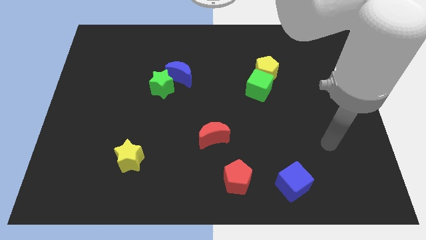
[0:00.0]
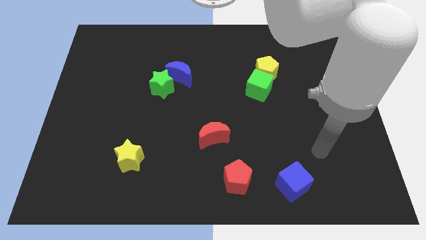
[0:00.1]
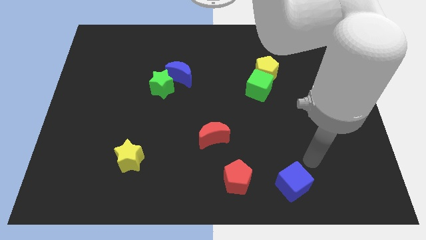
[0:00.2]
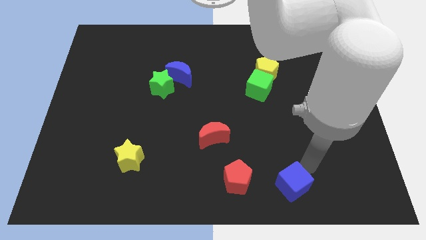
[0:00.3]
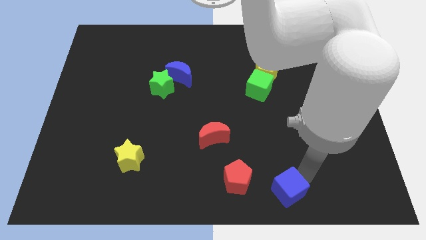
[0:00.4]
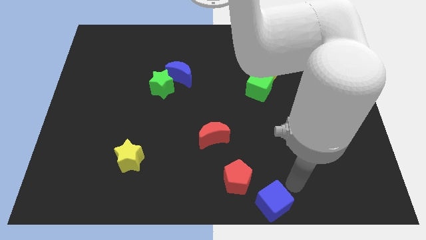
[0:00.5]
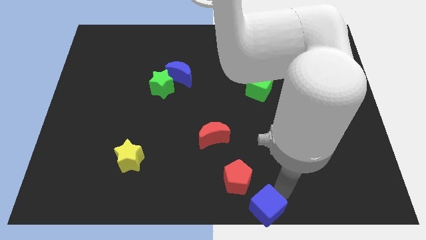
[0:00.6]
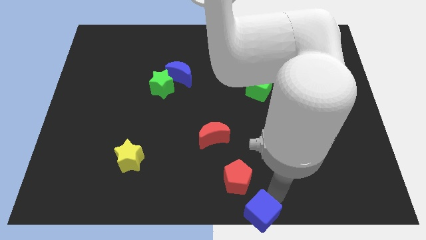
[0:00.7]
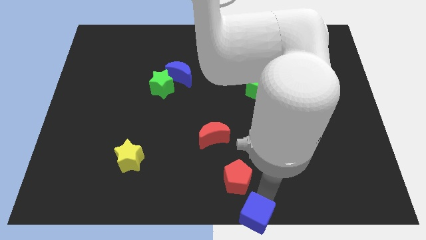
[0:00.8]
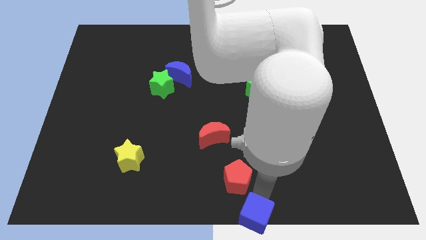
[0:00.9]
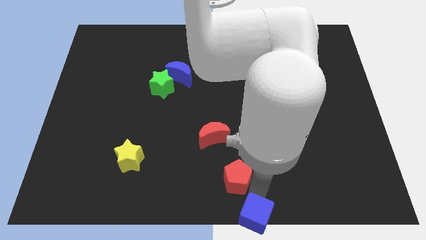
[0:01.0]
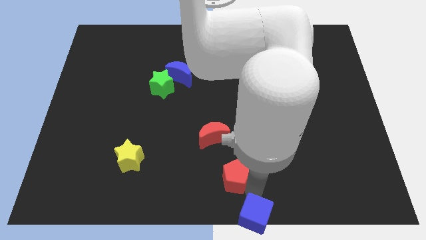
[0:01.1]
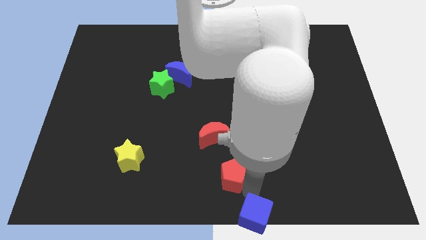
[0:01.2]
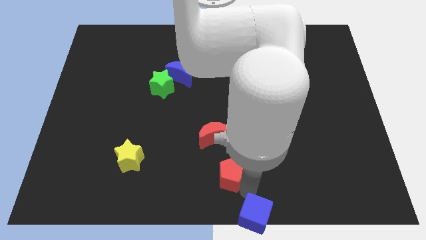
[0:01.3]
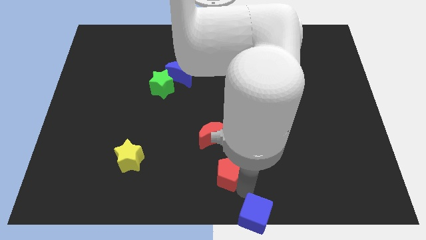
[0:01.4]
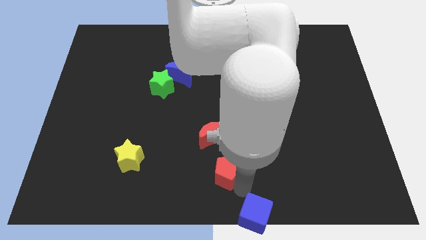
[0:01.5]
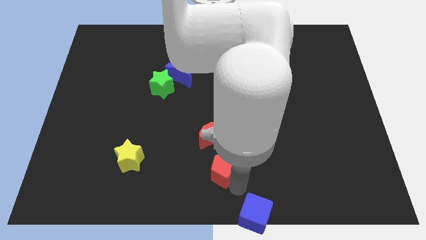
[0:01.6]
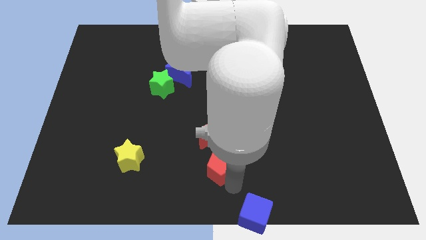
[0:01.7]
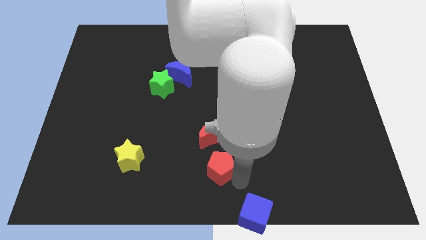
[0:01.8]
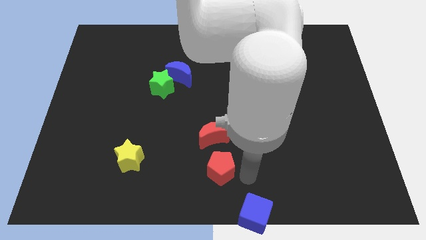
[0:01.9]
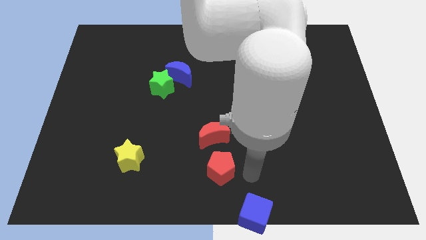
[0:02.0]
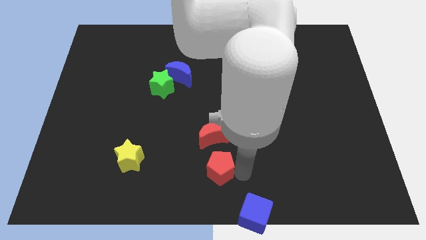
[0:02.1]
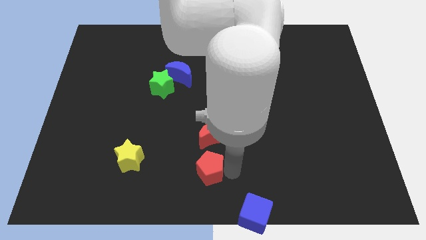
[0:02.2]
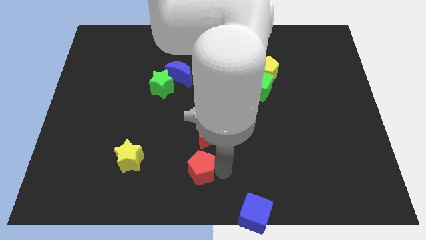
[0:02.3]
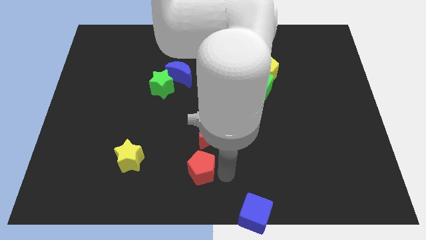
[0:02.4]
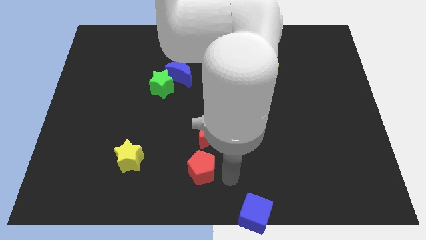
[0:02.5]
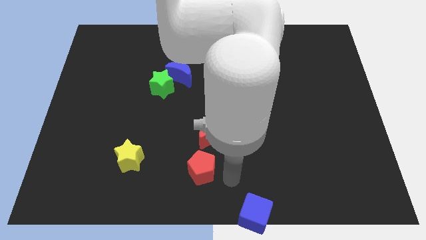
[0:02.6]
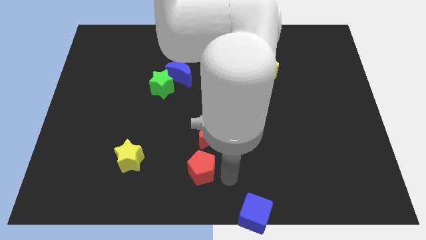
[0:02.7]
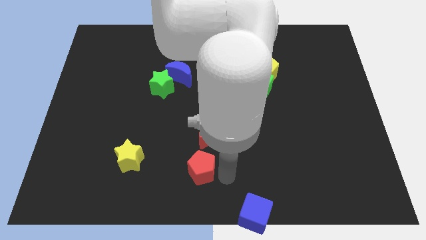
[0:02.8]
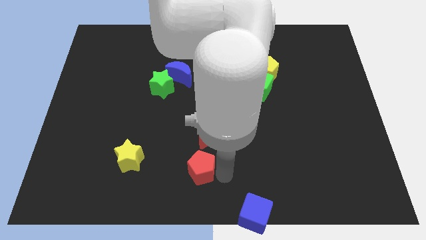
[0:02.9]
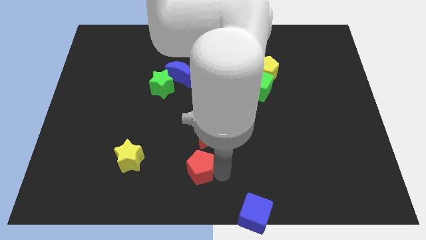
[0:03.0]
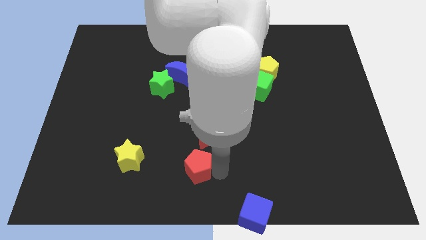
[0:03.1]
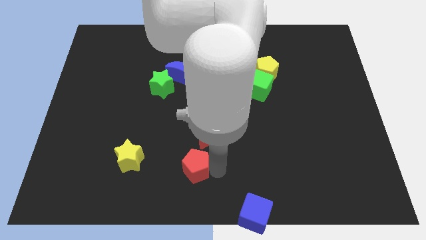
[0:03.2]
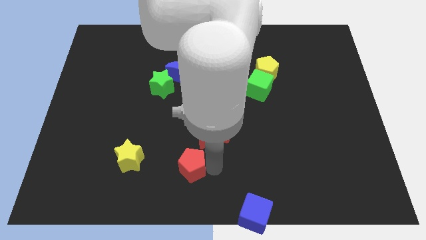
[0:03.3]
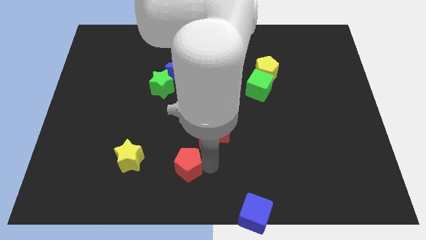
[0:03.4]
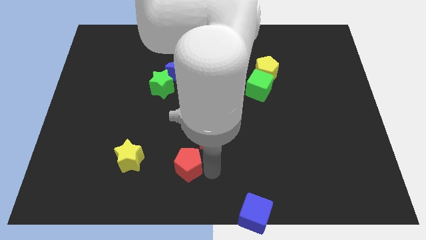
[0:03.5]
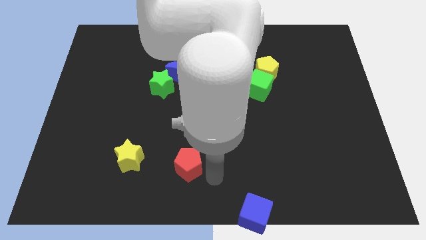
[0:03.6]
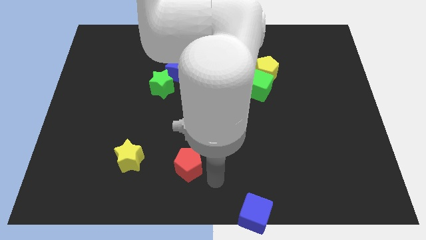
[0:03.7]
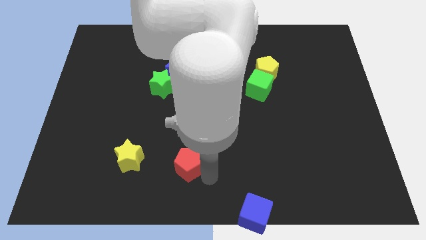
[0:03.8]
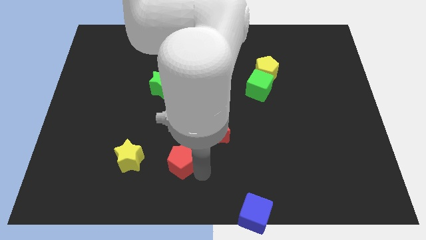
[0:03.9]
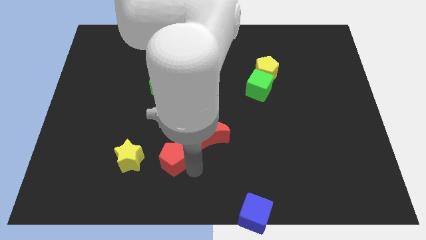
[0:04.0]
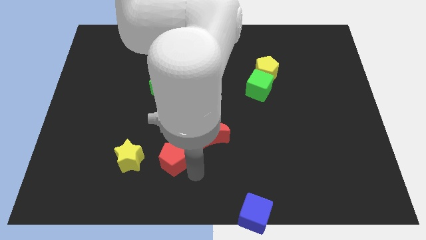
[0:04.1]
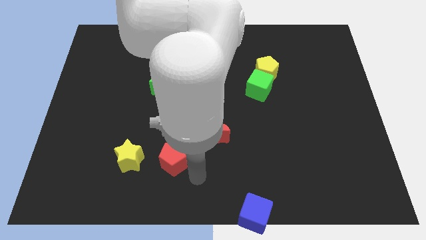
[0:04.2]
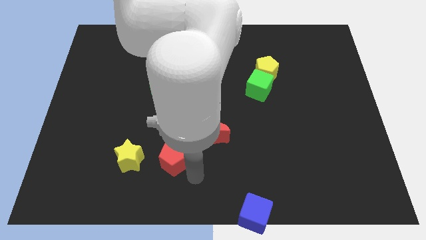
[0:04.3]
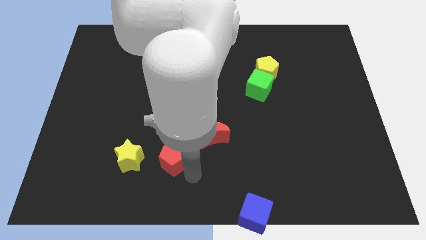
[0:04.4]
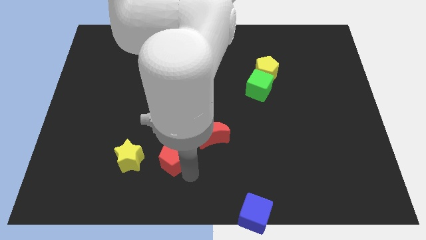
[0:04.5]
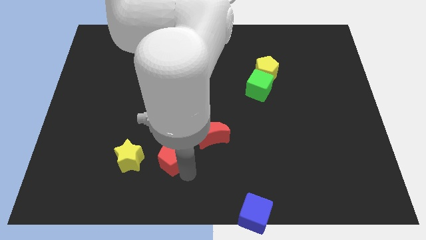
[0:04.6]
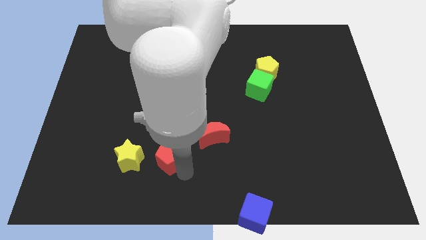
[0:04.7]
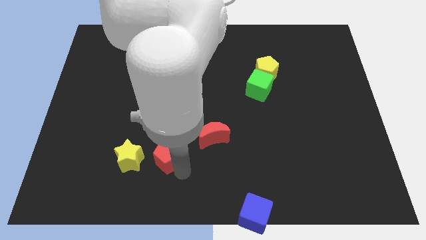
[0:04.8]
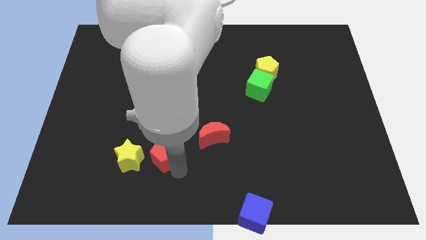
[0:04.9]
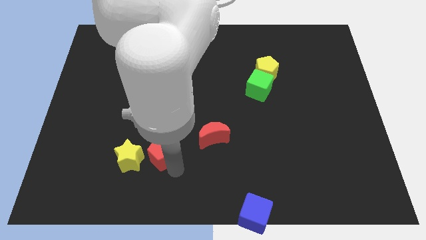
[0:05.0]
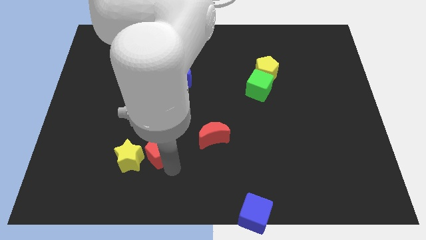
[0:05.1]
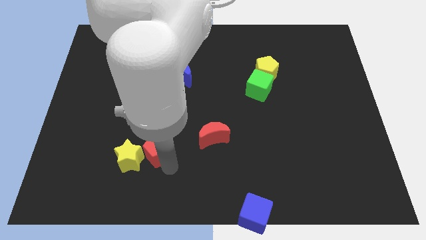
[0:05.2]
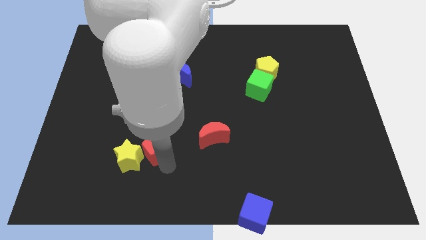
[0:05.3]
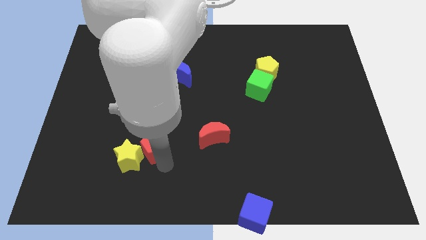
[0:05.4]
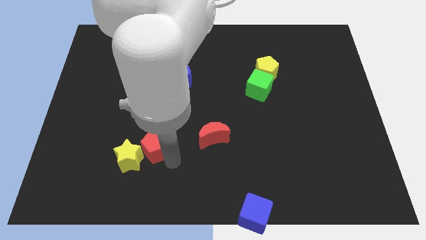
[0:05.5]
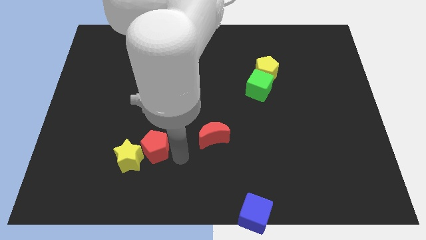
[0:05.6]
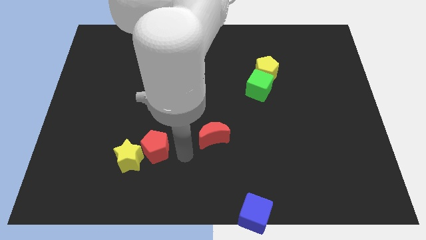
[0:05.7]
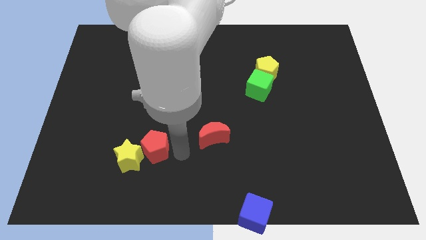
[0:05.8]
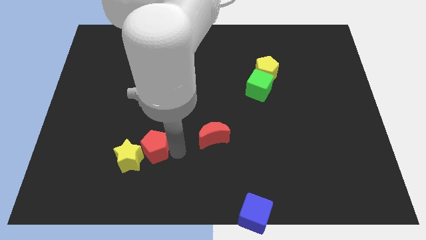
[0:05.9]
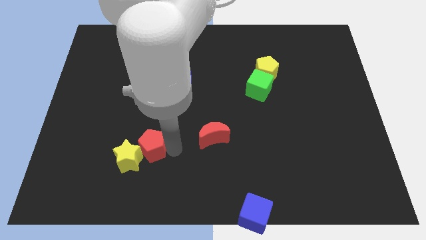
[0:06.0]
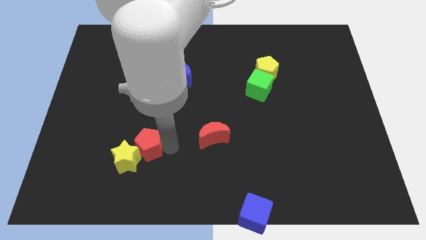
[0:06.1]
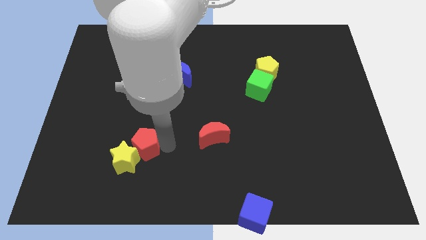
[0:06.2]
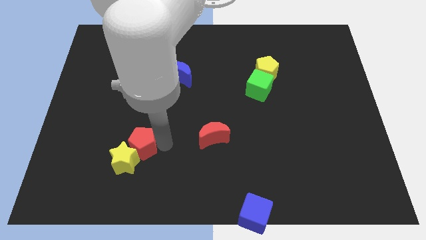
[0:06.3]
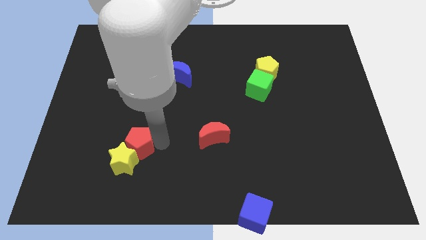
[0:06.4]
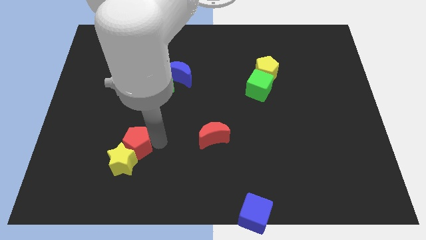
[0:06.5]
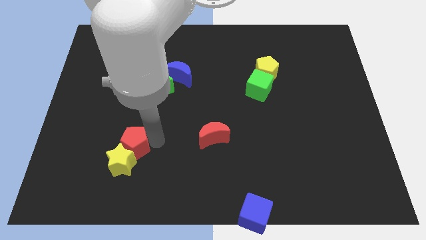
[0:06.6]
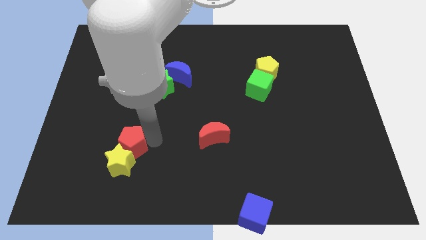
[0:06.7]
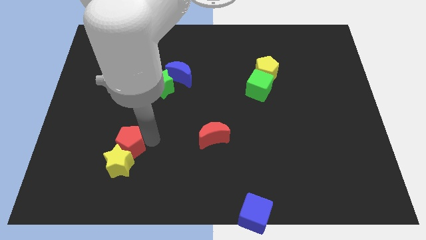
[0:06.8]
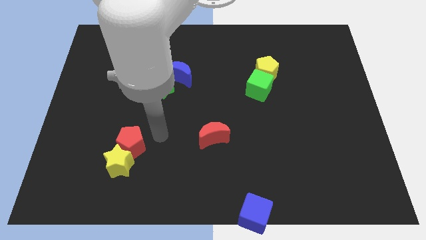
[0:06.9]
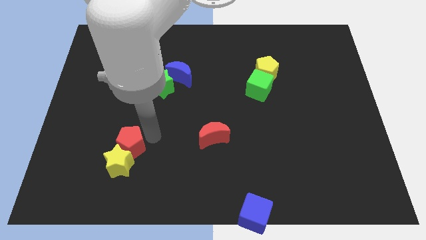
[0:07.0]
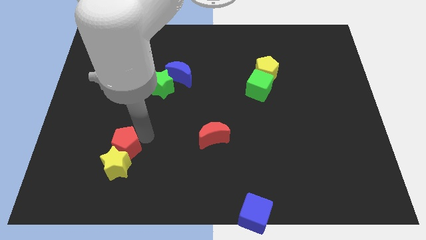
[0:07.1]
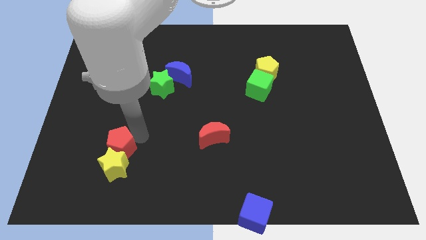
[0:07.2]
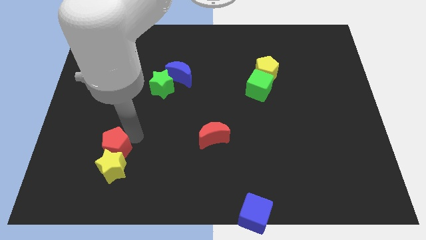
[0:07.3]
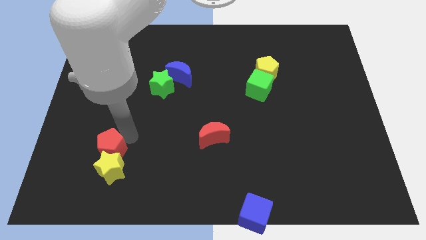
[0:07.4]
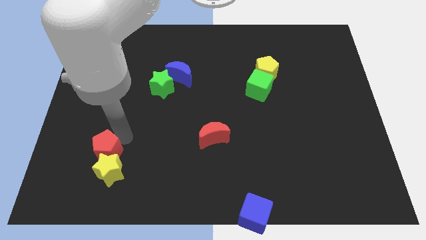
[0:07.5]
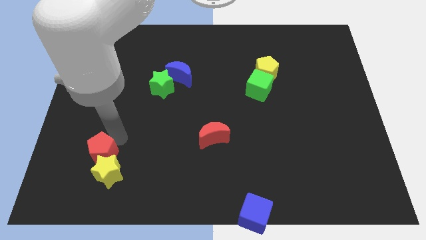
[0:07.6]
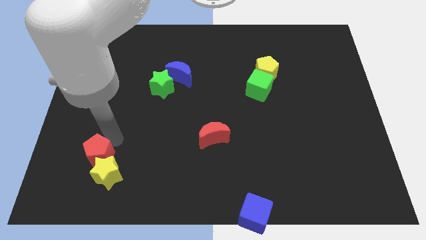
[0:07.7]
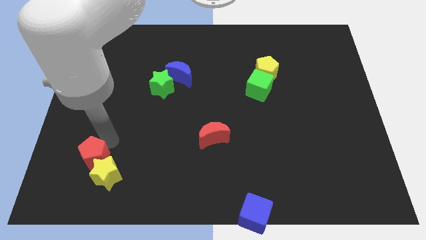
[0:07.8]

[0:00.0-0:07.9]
push the red pentagon to the left of the yellow star
